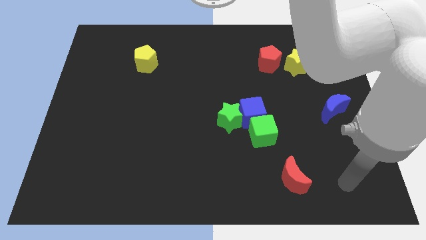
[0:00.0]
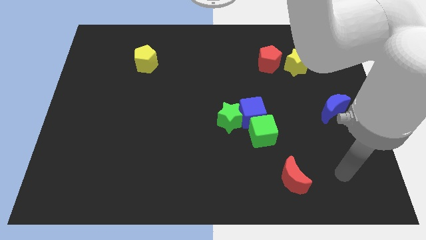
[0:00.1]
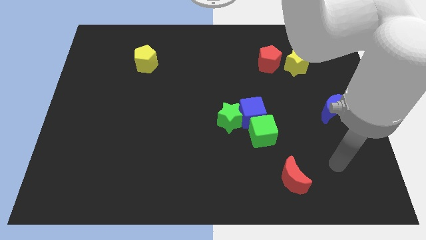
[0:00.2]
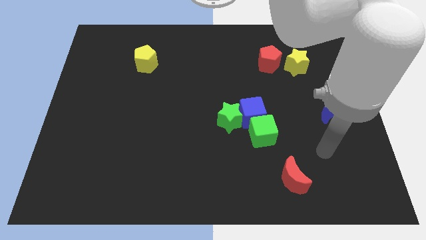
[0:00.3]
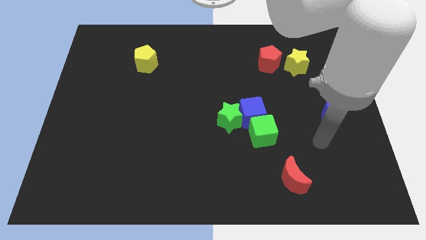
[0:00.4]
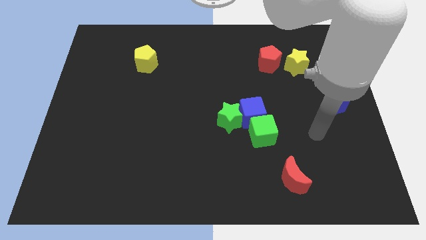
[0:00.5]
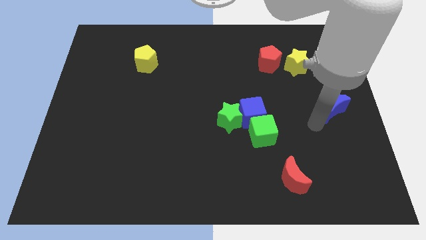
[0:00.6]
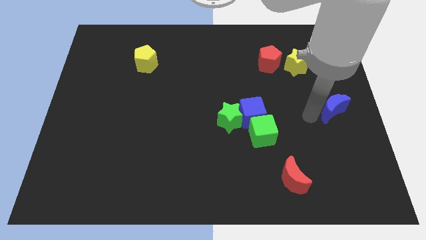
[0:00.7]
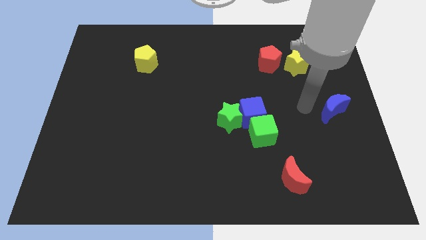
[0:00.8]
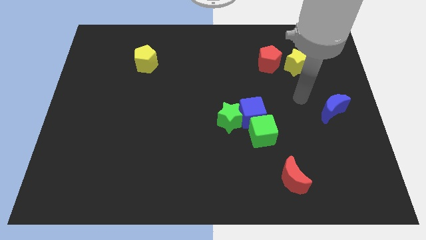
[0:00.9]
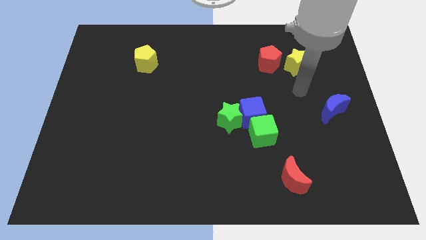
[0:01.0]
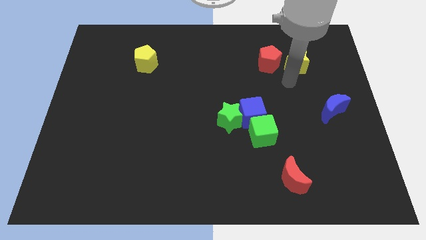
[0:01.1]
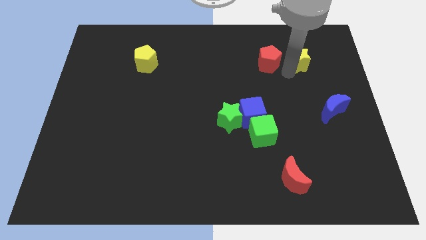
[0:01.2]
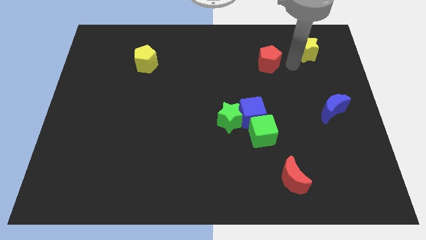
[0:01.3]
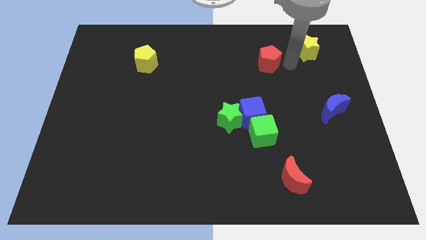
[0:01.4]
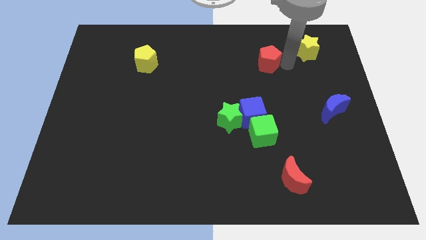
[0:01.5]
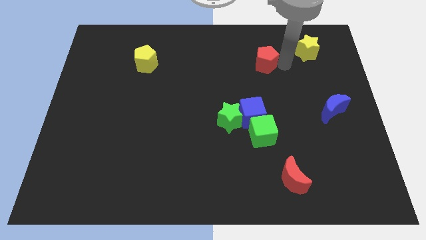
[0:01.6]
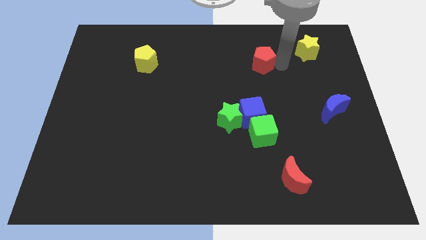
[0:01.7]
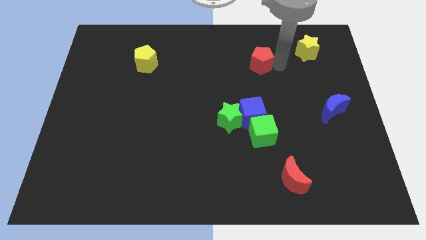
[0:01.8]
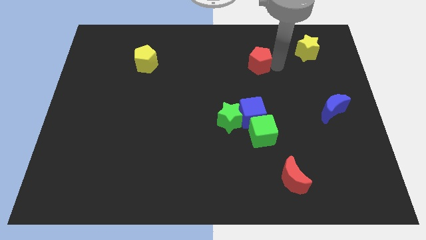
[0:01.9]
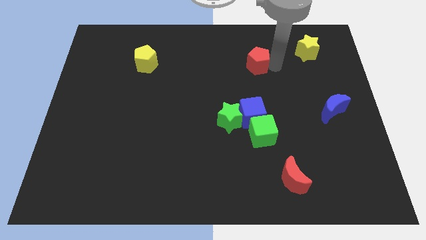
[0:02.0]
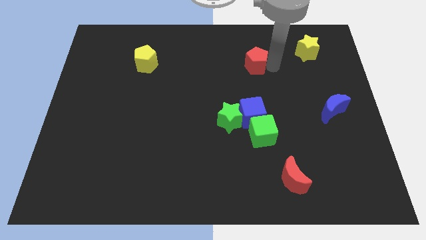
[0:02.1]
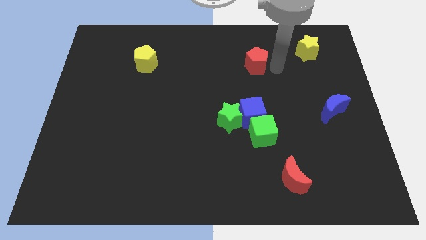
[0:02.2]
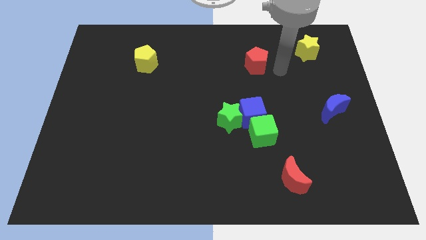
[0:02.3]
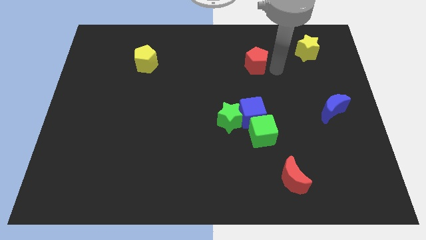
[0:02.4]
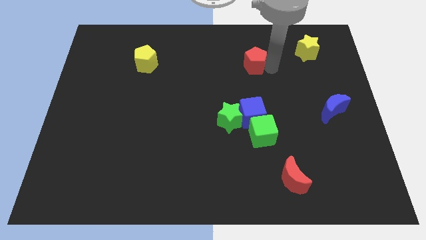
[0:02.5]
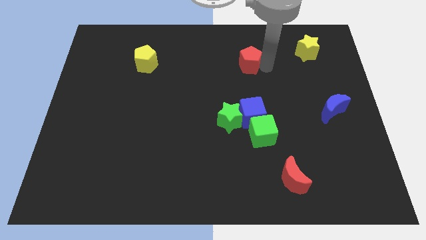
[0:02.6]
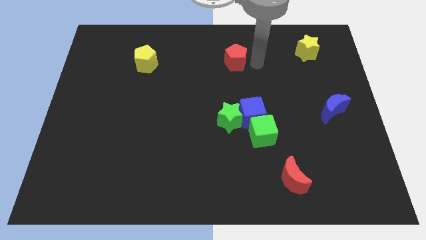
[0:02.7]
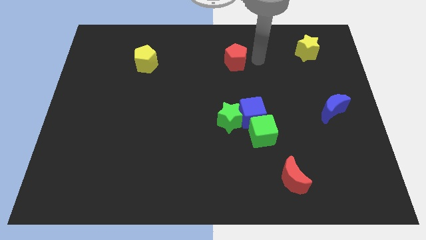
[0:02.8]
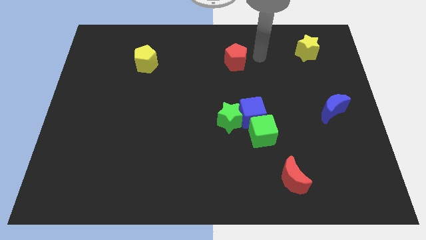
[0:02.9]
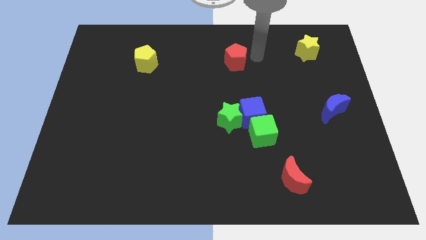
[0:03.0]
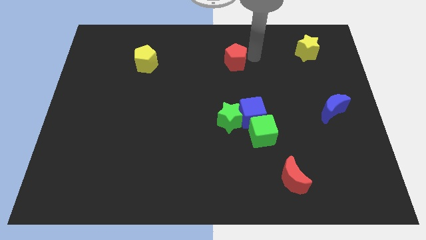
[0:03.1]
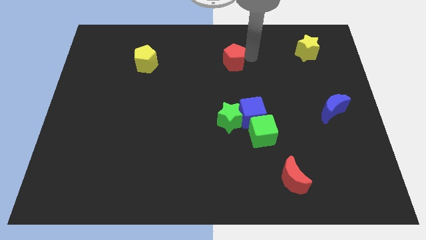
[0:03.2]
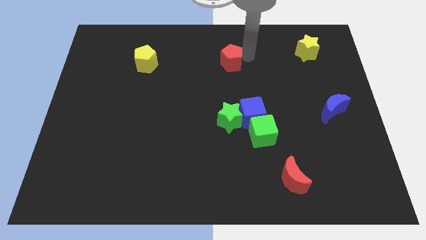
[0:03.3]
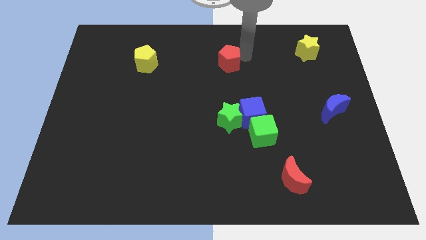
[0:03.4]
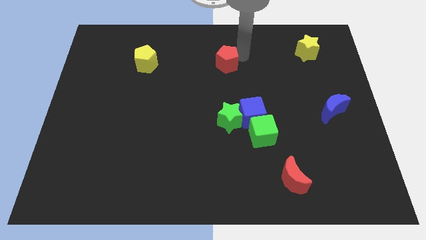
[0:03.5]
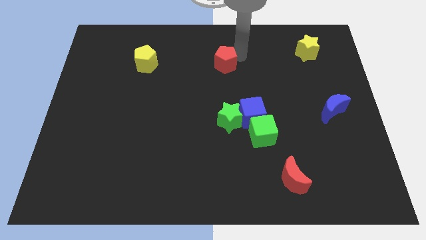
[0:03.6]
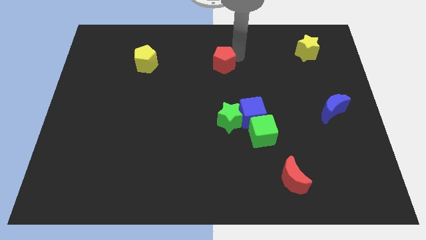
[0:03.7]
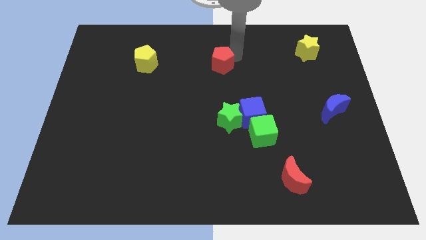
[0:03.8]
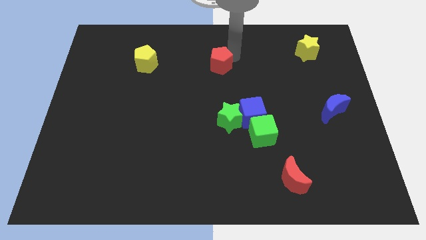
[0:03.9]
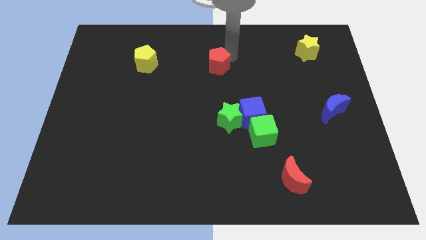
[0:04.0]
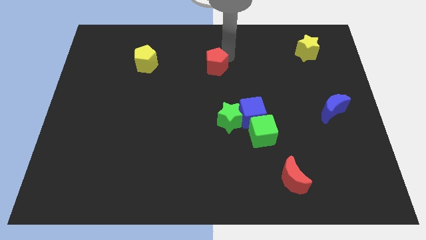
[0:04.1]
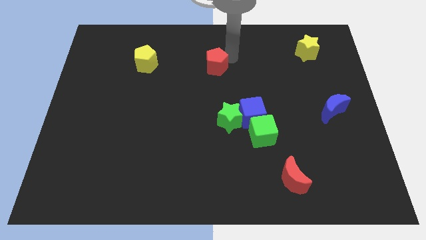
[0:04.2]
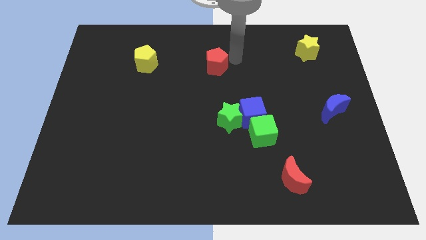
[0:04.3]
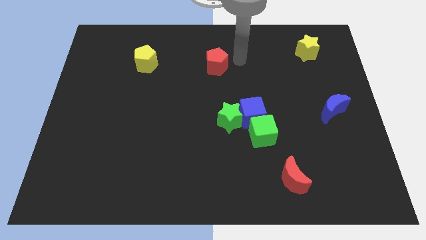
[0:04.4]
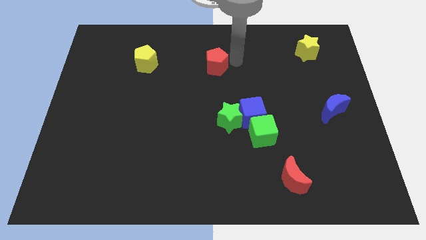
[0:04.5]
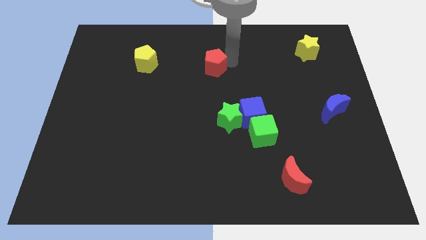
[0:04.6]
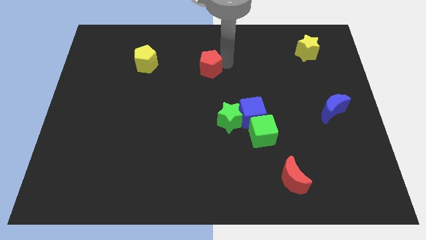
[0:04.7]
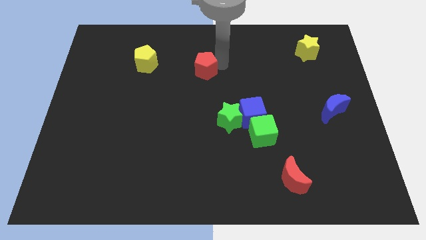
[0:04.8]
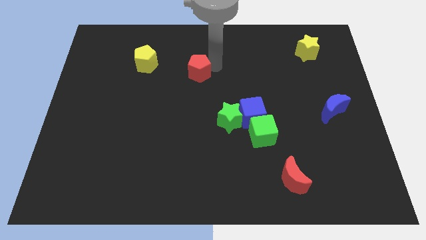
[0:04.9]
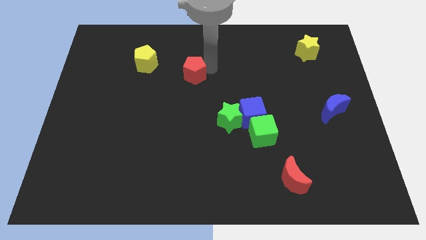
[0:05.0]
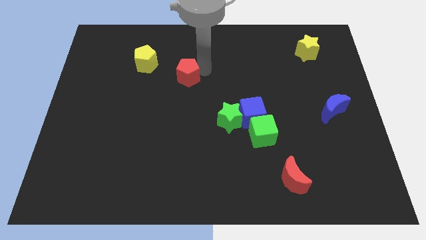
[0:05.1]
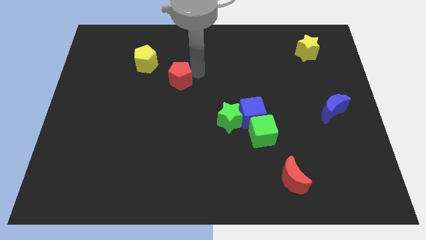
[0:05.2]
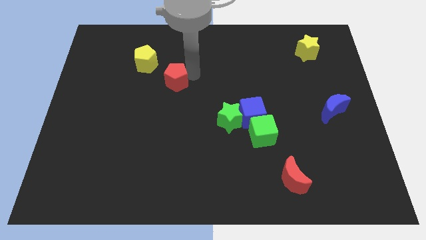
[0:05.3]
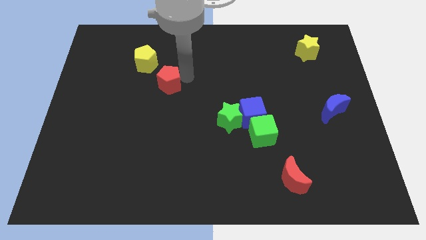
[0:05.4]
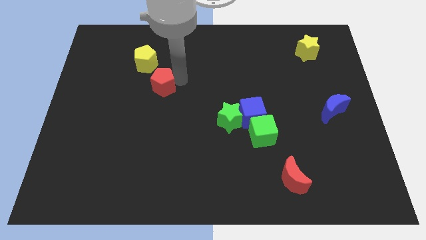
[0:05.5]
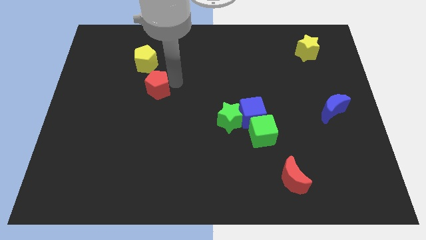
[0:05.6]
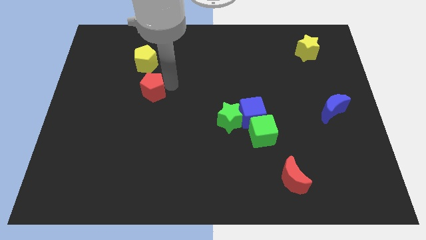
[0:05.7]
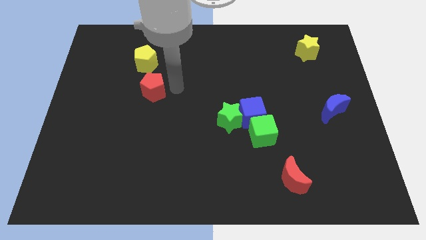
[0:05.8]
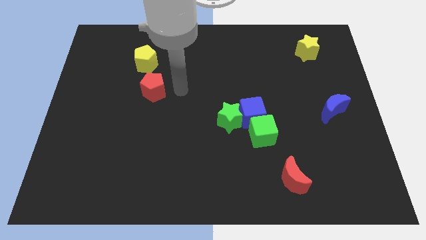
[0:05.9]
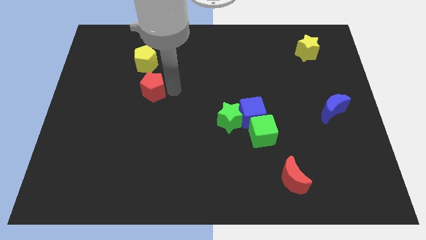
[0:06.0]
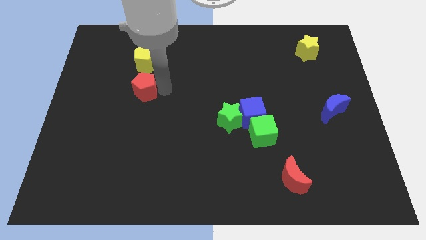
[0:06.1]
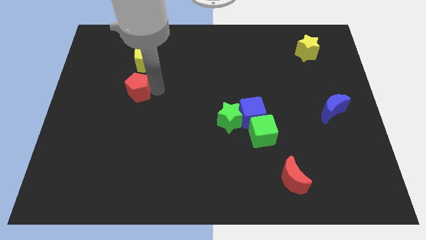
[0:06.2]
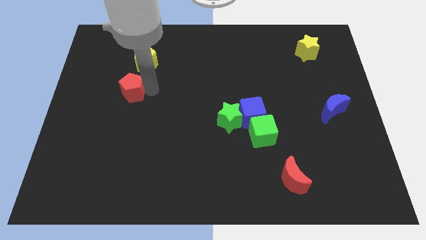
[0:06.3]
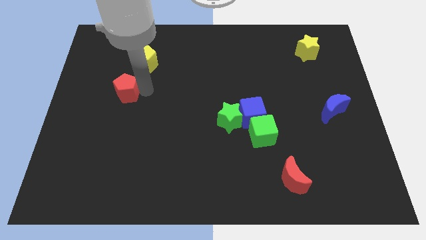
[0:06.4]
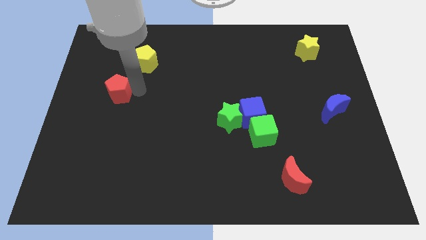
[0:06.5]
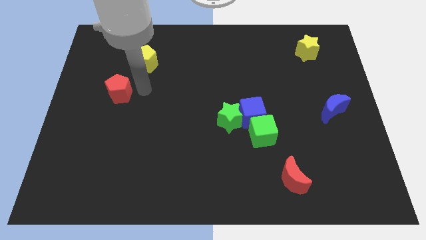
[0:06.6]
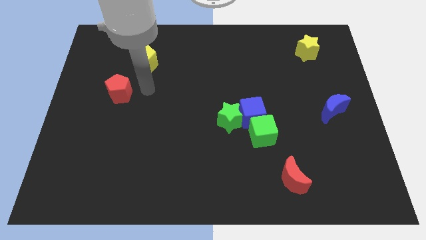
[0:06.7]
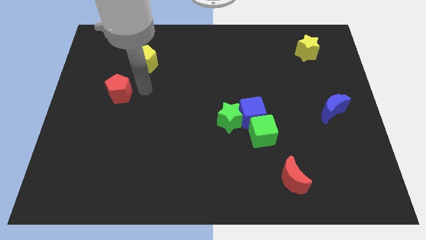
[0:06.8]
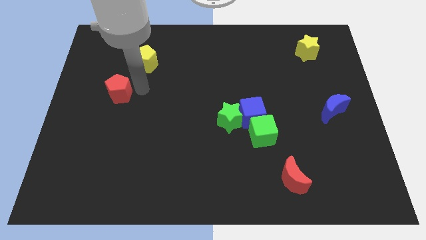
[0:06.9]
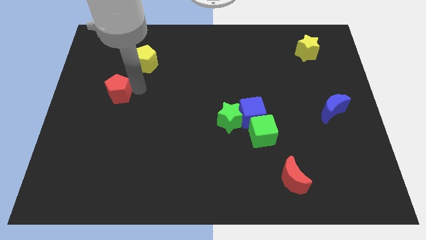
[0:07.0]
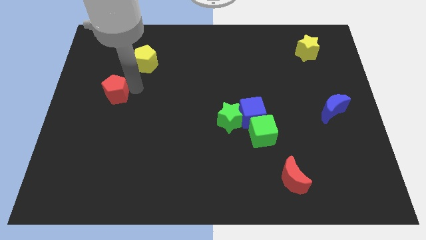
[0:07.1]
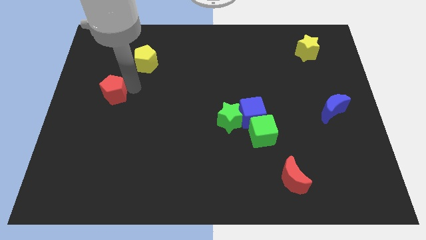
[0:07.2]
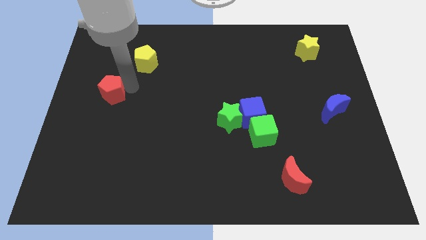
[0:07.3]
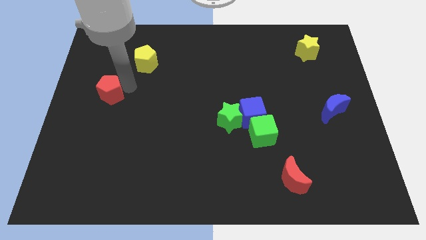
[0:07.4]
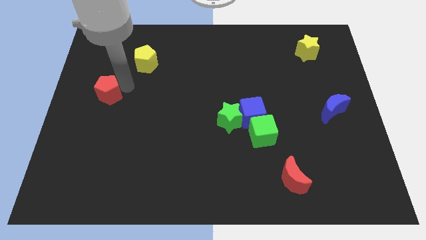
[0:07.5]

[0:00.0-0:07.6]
move the red pentagon to the left side
